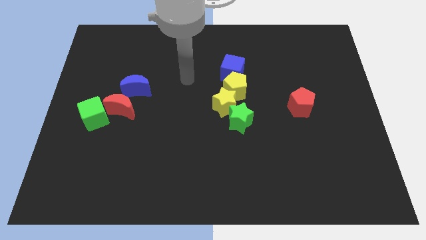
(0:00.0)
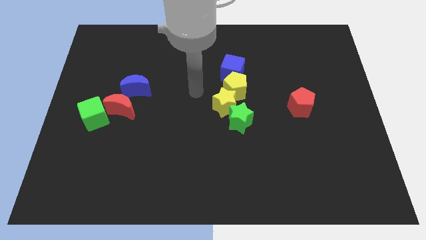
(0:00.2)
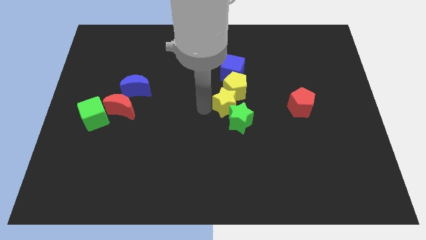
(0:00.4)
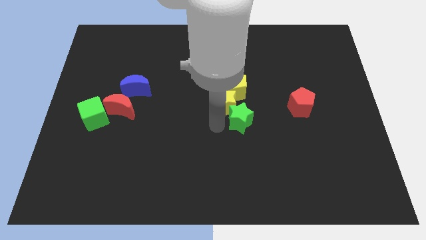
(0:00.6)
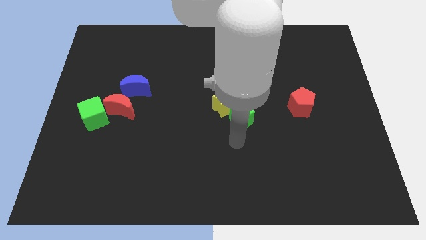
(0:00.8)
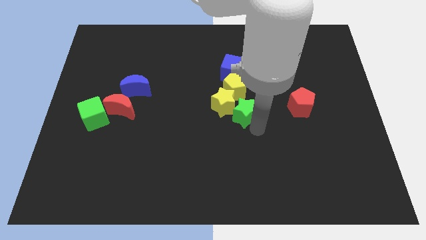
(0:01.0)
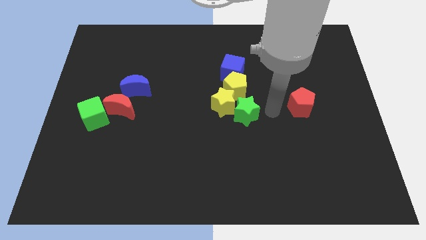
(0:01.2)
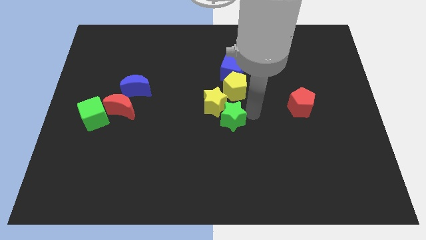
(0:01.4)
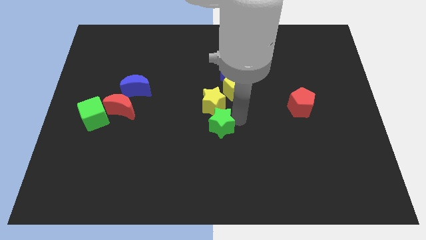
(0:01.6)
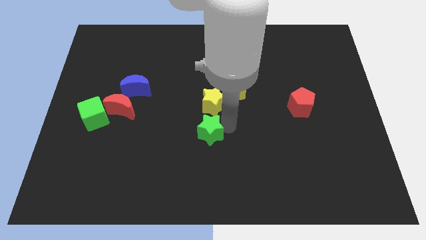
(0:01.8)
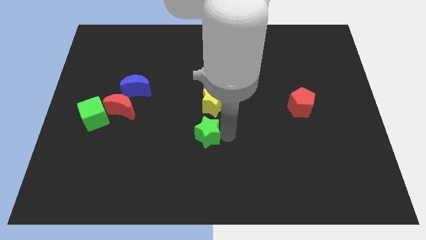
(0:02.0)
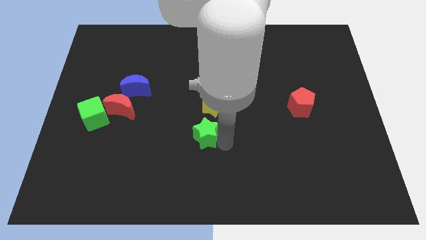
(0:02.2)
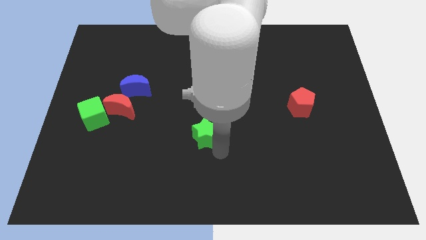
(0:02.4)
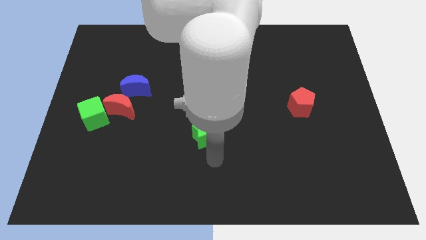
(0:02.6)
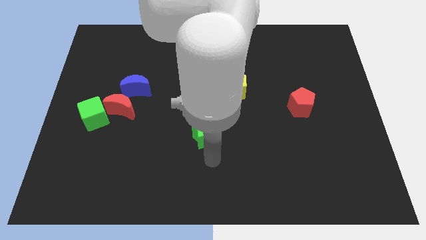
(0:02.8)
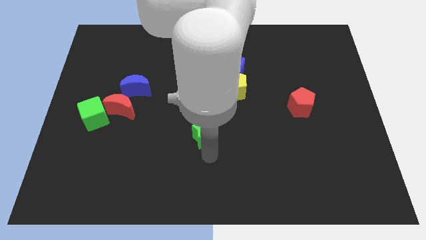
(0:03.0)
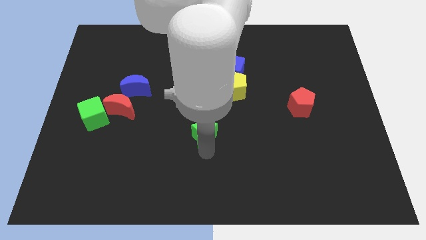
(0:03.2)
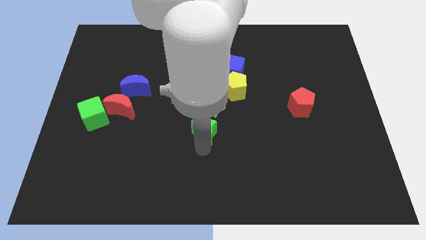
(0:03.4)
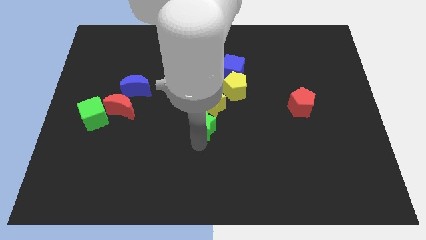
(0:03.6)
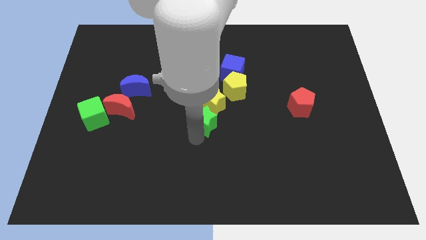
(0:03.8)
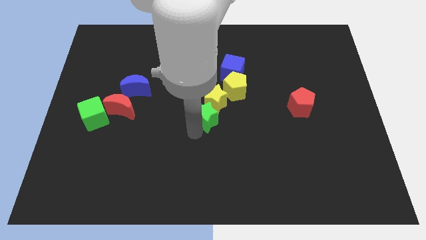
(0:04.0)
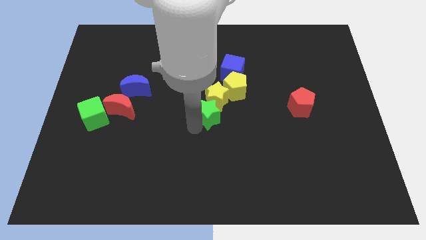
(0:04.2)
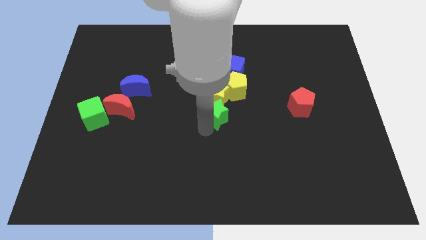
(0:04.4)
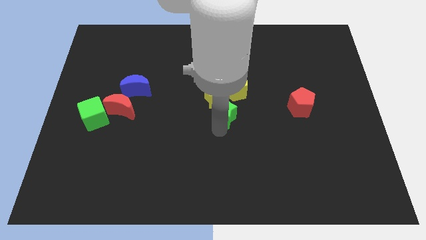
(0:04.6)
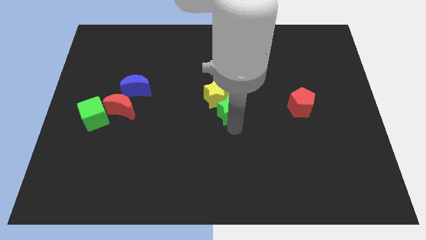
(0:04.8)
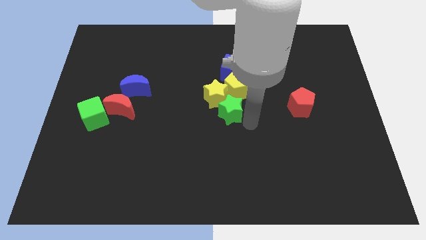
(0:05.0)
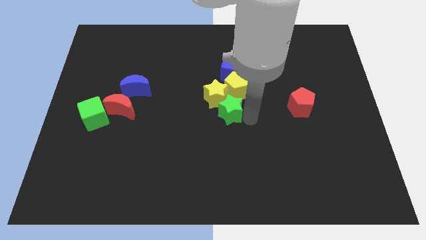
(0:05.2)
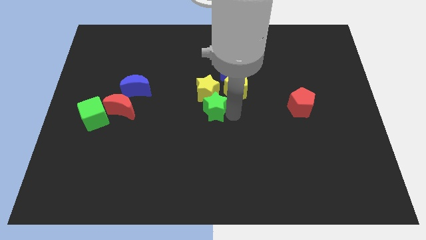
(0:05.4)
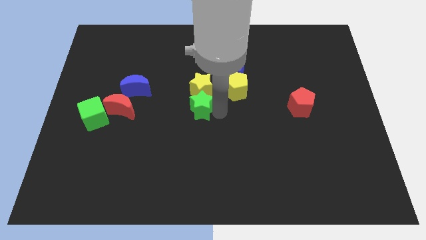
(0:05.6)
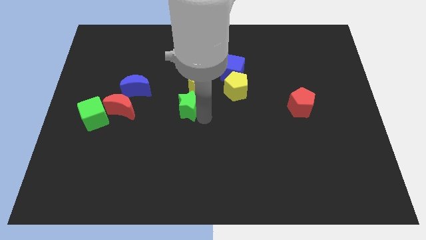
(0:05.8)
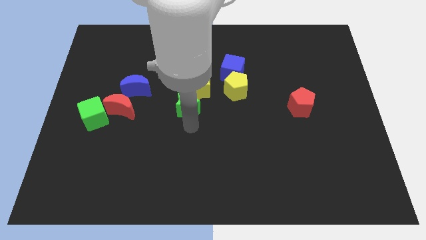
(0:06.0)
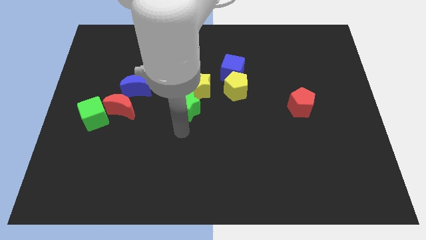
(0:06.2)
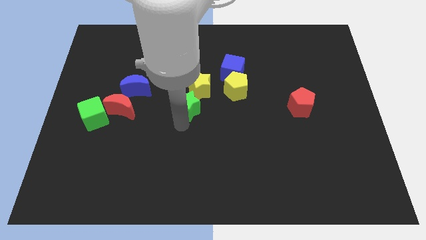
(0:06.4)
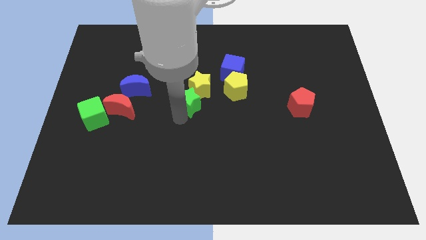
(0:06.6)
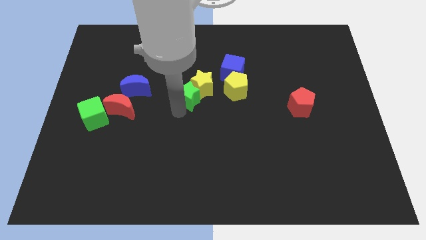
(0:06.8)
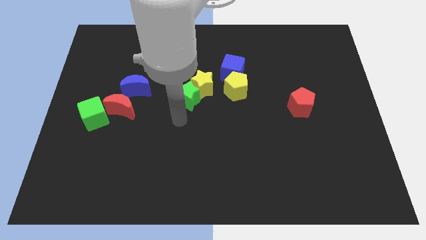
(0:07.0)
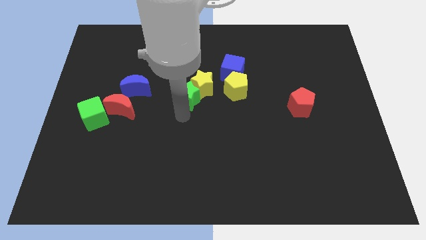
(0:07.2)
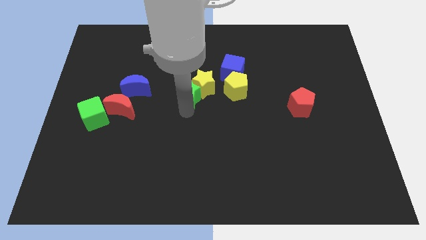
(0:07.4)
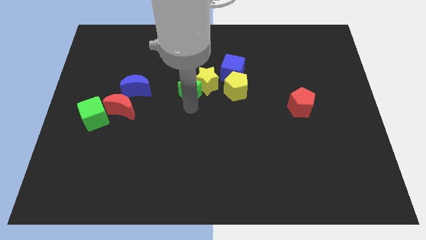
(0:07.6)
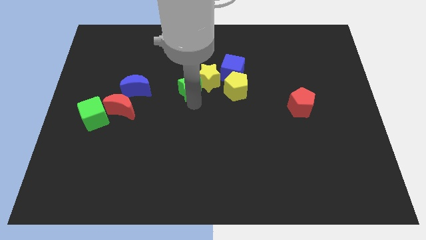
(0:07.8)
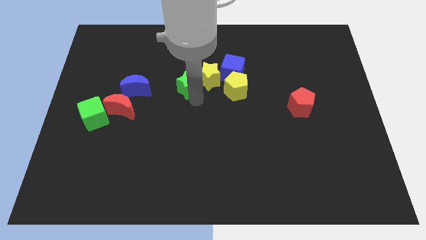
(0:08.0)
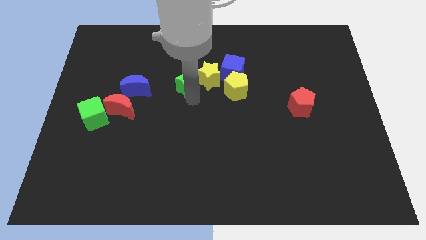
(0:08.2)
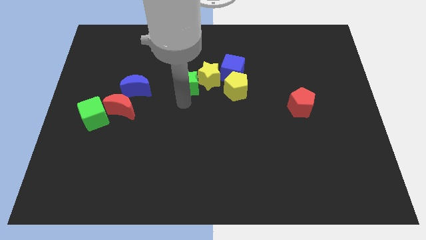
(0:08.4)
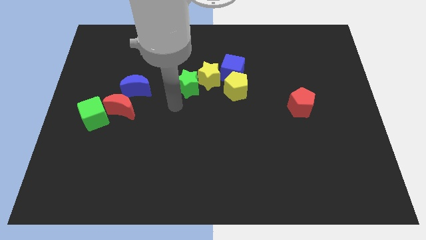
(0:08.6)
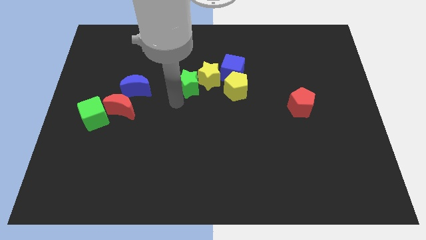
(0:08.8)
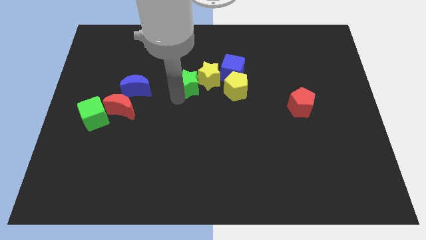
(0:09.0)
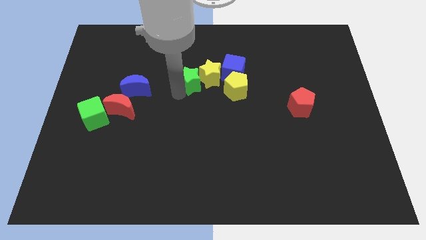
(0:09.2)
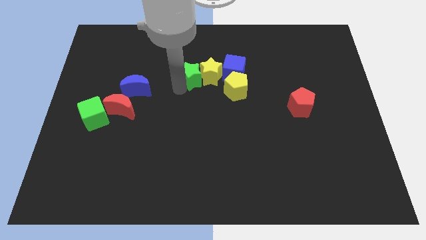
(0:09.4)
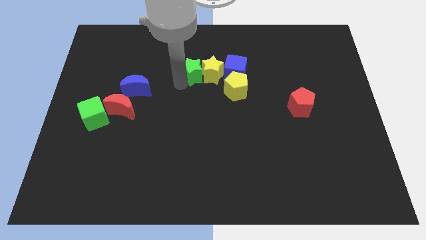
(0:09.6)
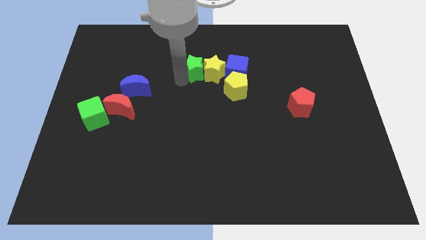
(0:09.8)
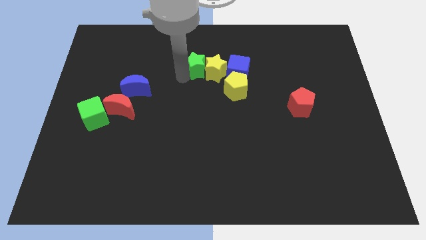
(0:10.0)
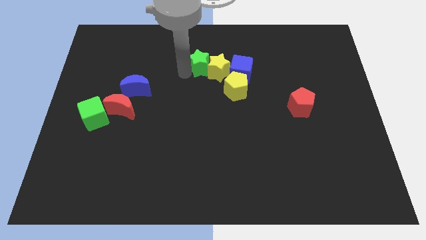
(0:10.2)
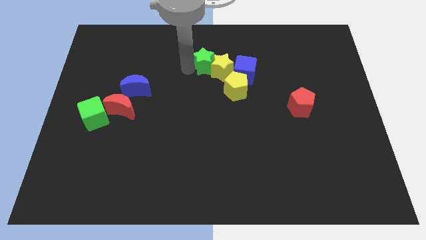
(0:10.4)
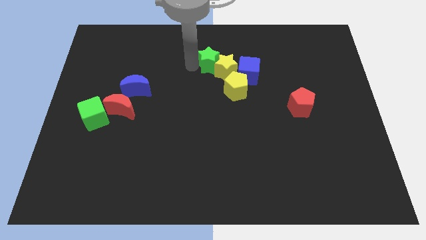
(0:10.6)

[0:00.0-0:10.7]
push the green star to the top left side of the blue cube

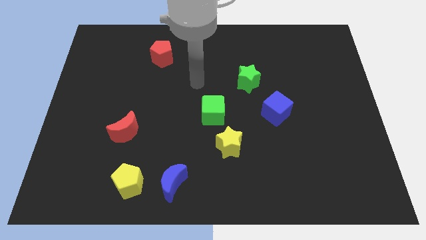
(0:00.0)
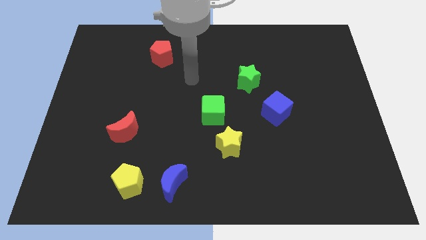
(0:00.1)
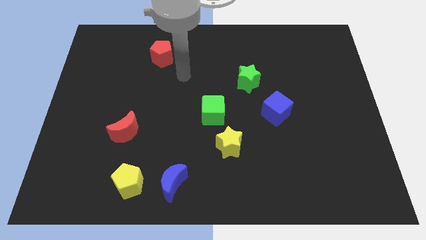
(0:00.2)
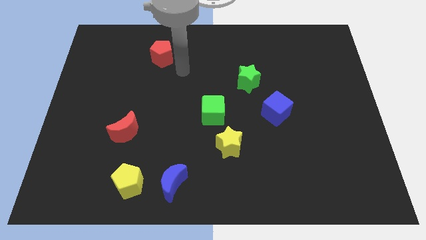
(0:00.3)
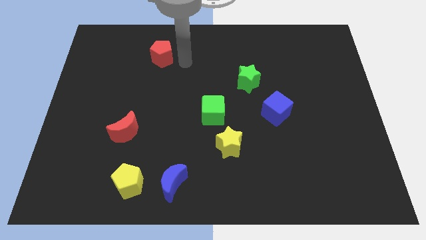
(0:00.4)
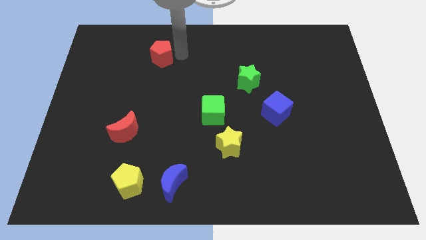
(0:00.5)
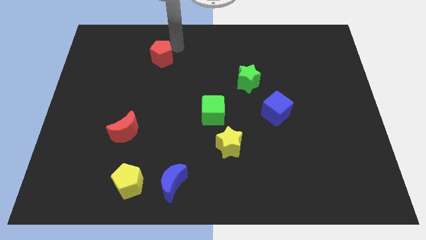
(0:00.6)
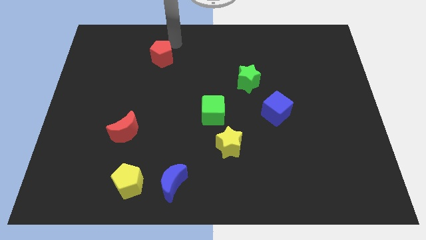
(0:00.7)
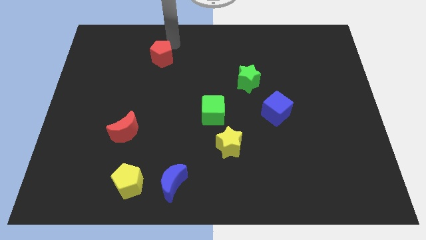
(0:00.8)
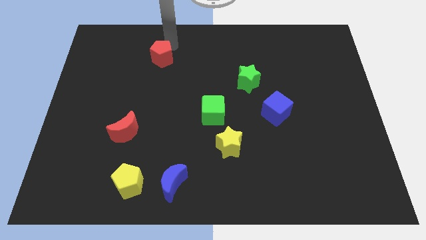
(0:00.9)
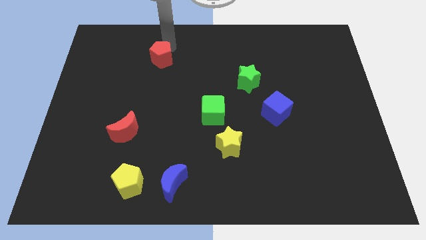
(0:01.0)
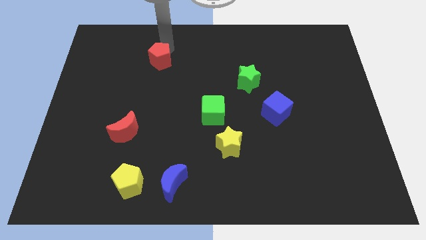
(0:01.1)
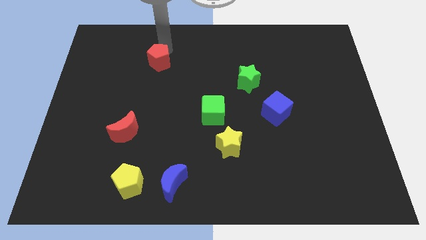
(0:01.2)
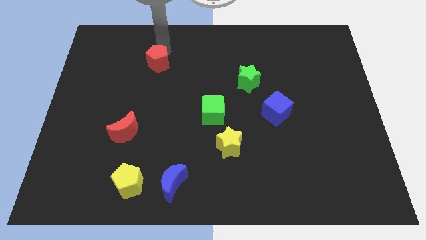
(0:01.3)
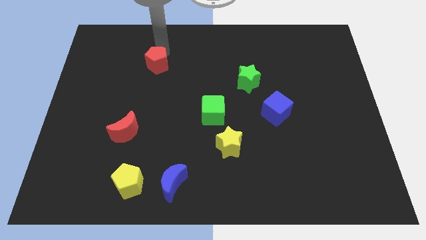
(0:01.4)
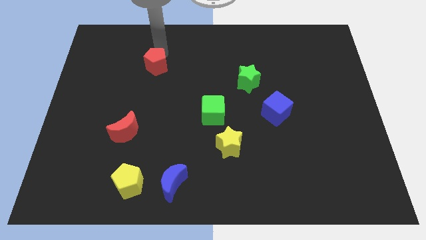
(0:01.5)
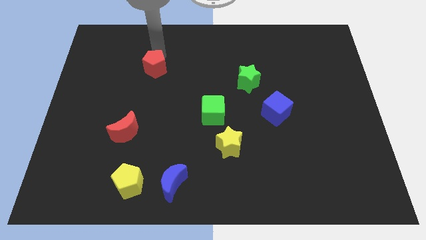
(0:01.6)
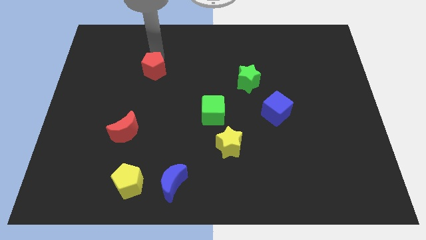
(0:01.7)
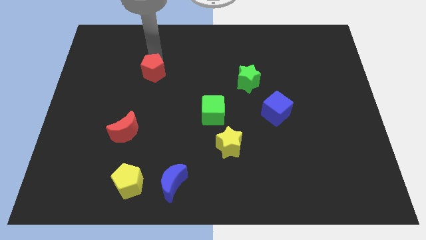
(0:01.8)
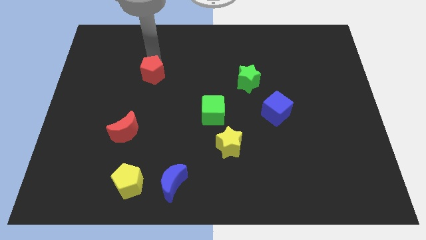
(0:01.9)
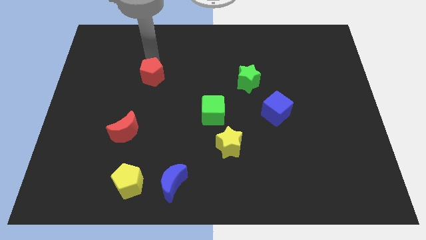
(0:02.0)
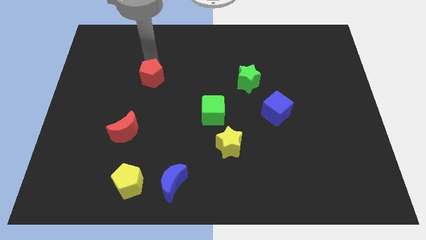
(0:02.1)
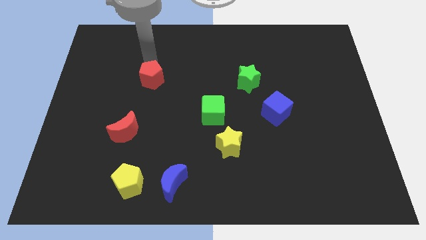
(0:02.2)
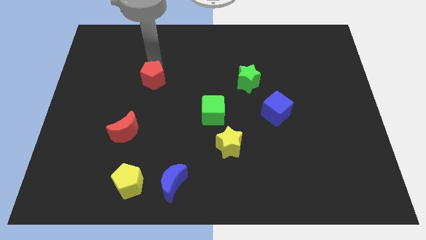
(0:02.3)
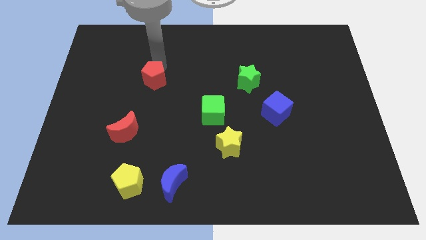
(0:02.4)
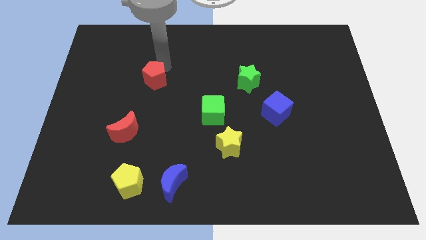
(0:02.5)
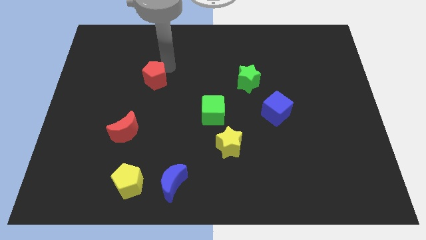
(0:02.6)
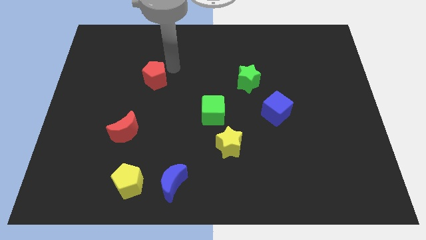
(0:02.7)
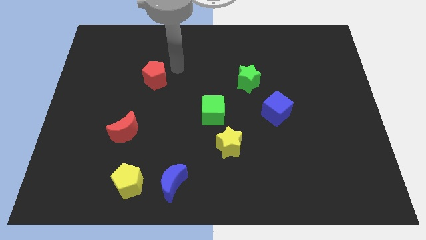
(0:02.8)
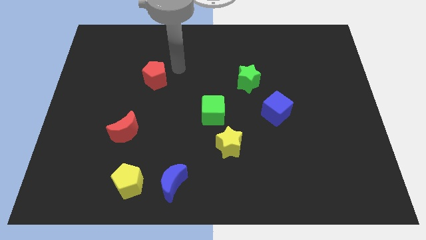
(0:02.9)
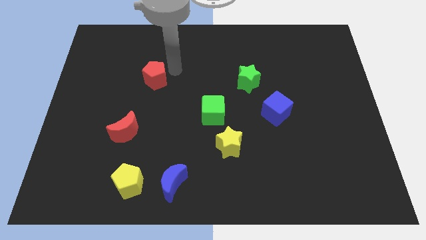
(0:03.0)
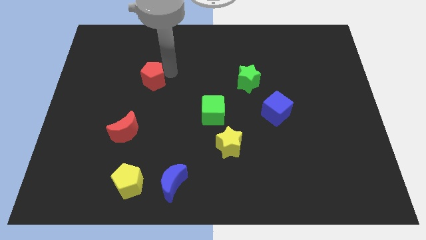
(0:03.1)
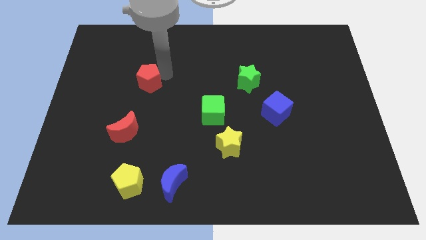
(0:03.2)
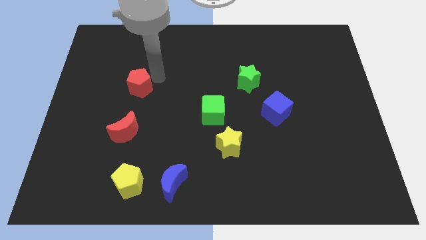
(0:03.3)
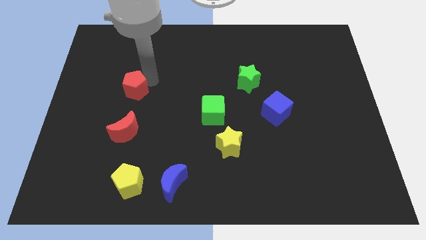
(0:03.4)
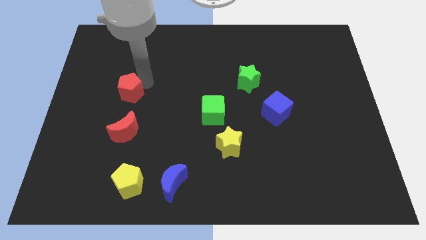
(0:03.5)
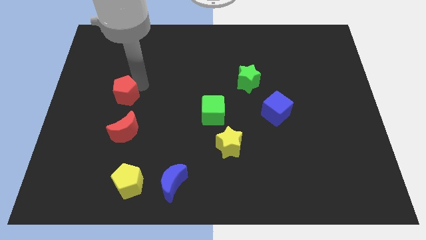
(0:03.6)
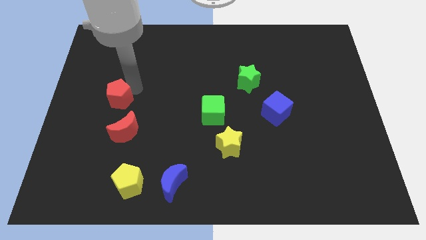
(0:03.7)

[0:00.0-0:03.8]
move the red pentagon diagonally up and to the left of the red moon
